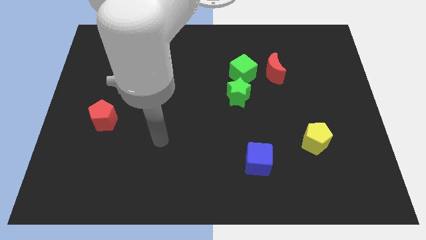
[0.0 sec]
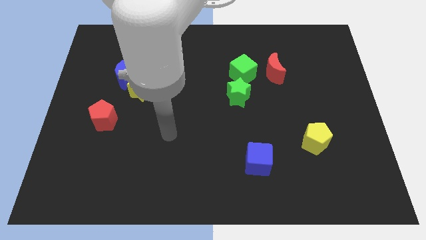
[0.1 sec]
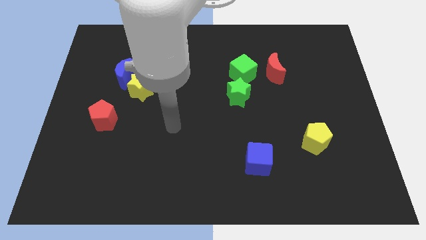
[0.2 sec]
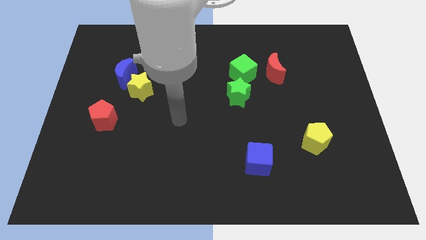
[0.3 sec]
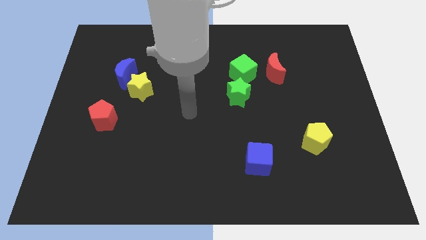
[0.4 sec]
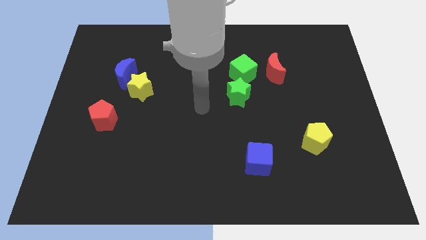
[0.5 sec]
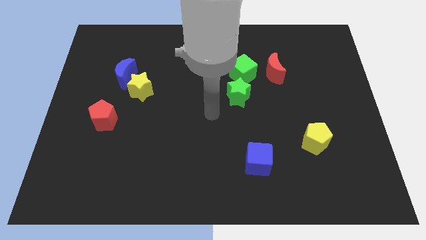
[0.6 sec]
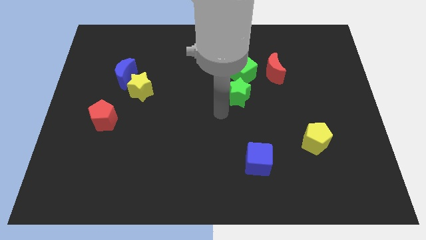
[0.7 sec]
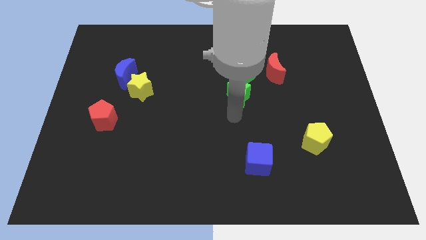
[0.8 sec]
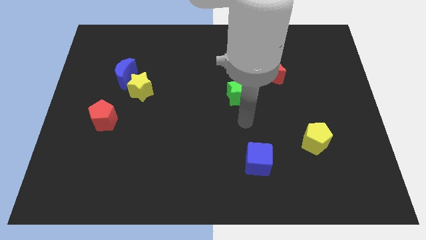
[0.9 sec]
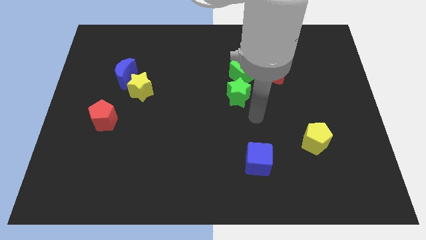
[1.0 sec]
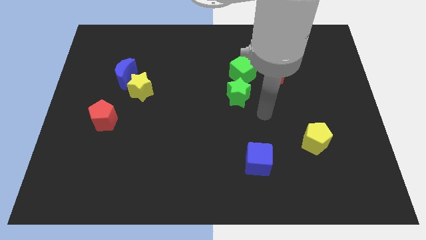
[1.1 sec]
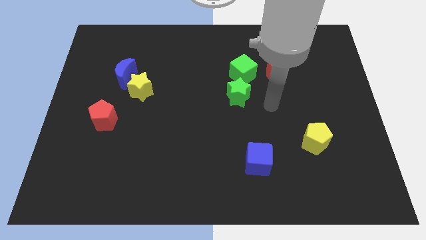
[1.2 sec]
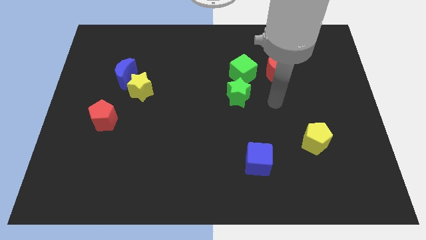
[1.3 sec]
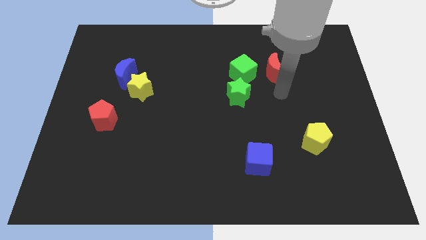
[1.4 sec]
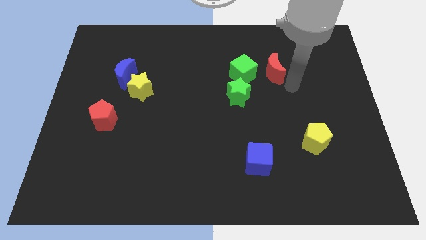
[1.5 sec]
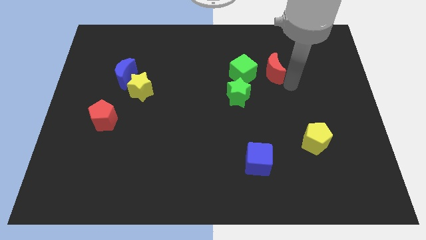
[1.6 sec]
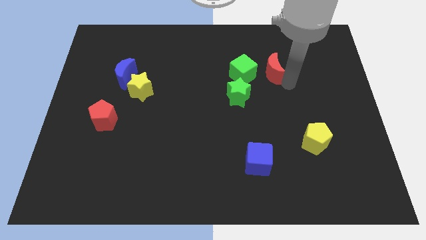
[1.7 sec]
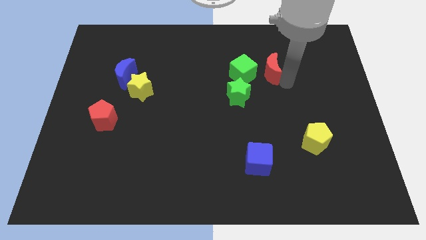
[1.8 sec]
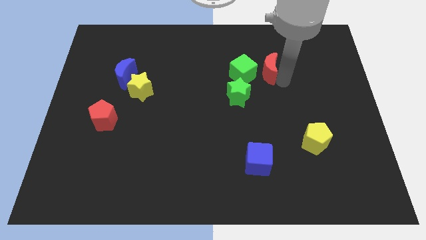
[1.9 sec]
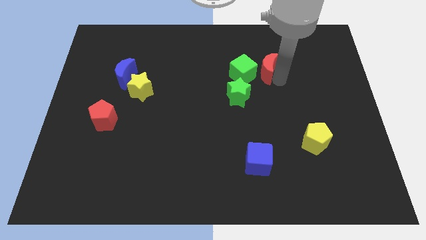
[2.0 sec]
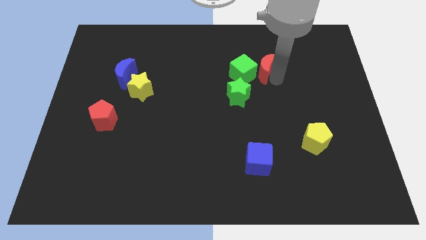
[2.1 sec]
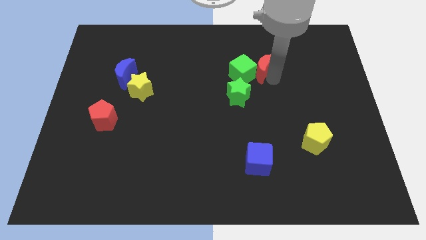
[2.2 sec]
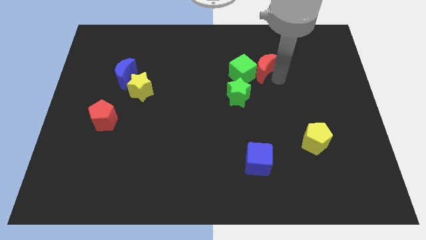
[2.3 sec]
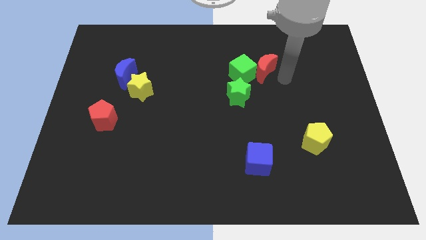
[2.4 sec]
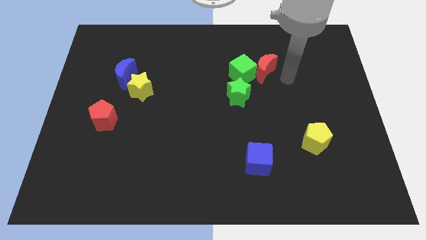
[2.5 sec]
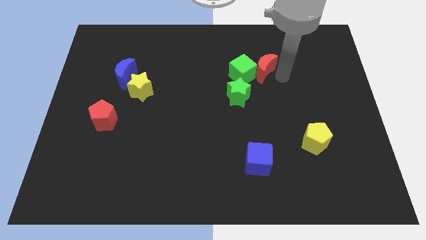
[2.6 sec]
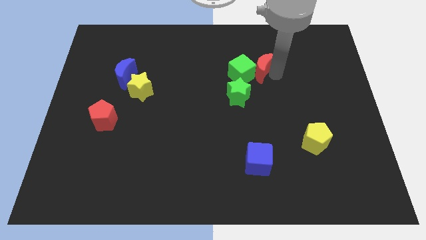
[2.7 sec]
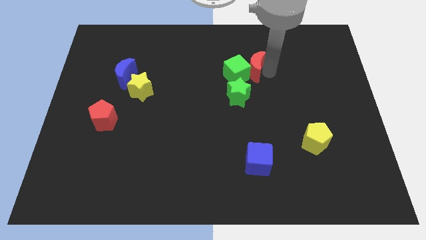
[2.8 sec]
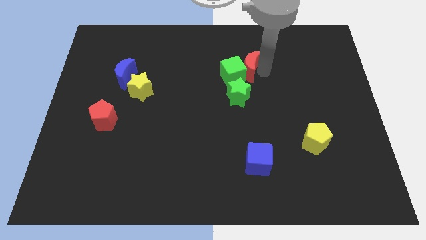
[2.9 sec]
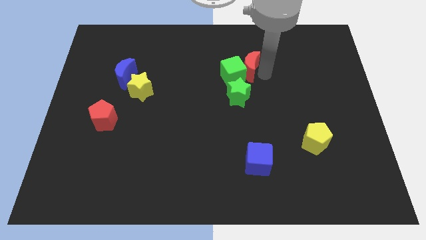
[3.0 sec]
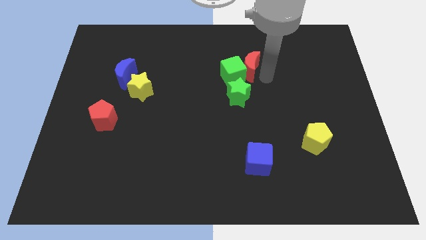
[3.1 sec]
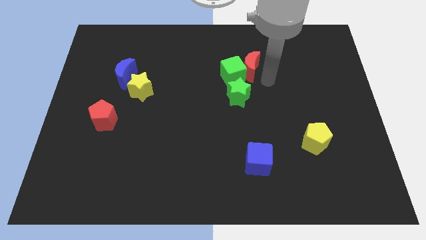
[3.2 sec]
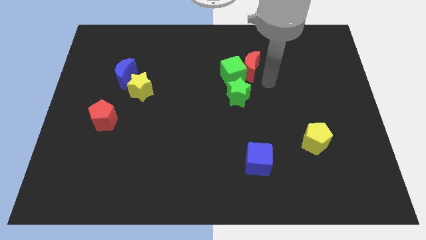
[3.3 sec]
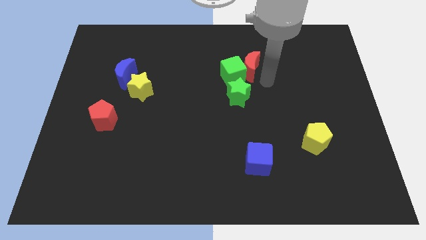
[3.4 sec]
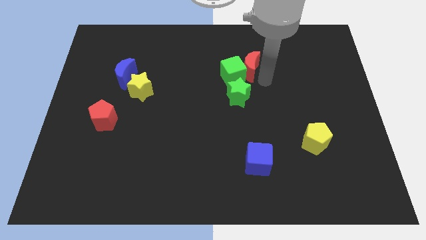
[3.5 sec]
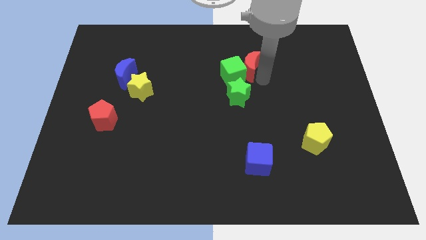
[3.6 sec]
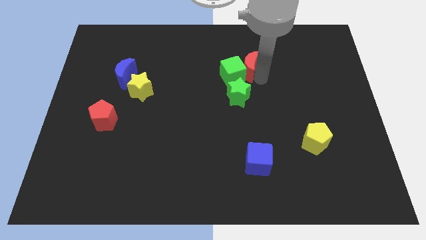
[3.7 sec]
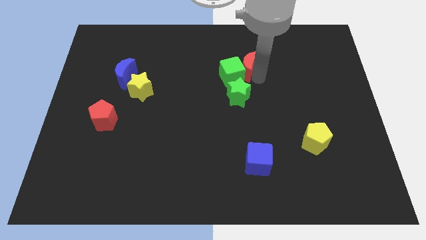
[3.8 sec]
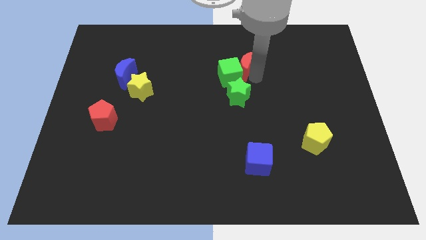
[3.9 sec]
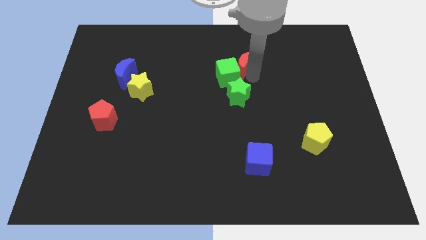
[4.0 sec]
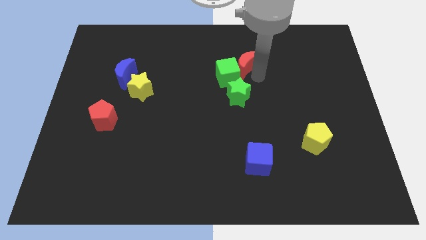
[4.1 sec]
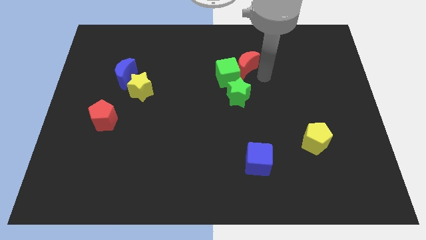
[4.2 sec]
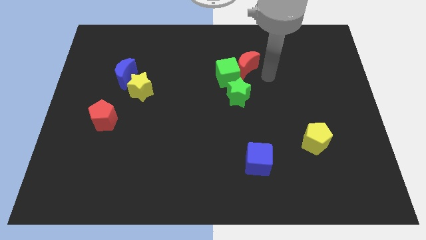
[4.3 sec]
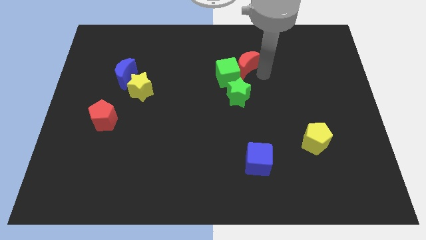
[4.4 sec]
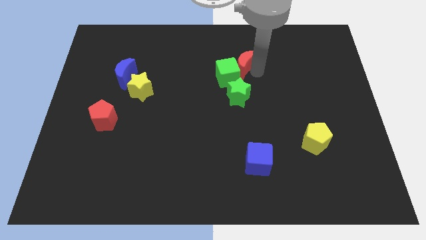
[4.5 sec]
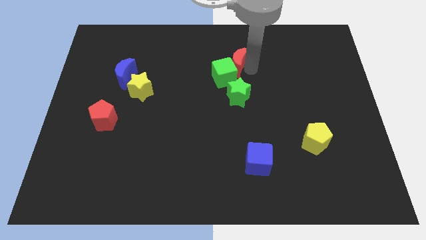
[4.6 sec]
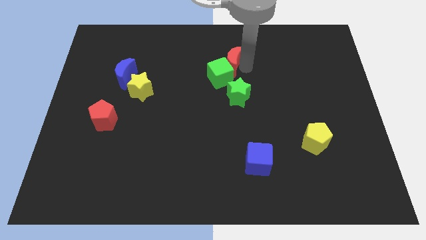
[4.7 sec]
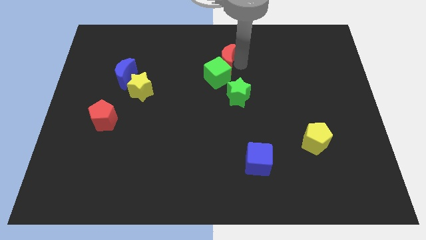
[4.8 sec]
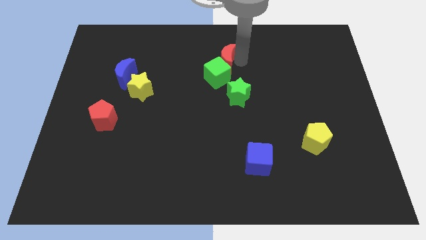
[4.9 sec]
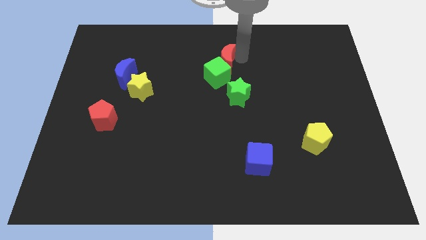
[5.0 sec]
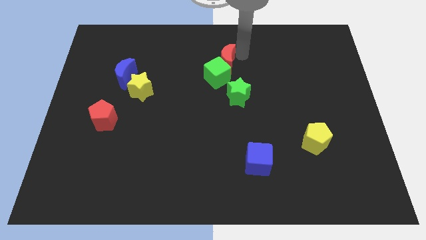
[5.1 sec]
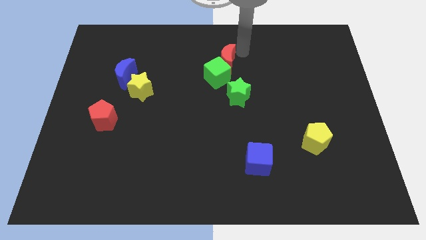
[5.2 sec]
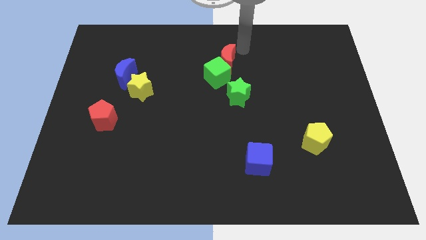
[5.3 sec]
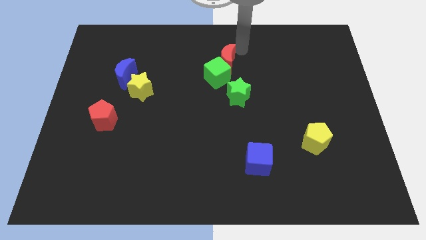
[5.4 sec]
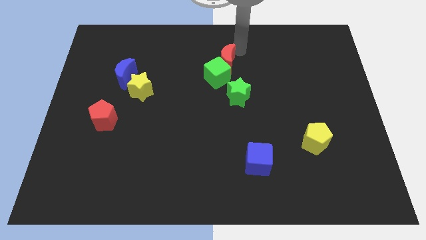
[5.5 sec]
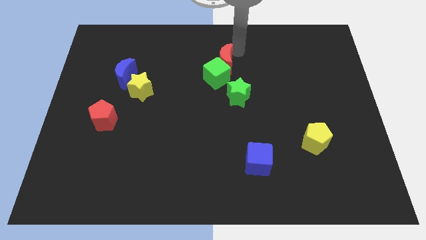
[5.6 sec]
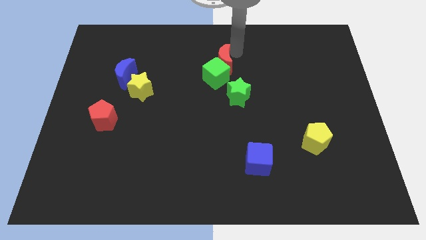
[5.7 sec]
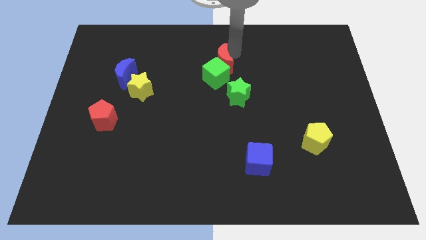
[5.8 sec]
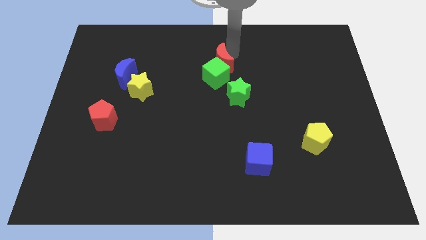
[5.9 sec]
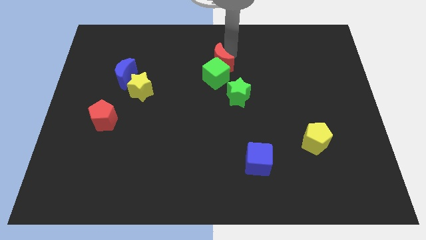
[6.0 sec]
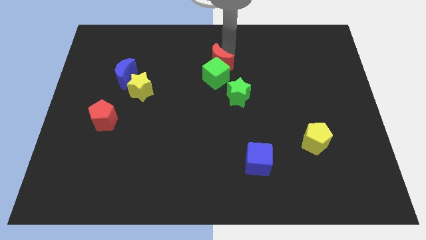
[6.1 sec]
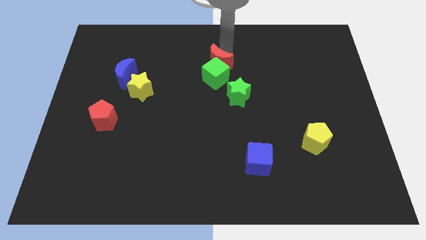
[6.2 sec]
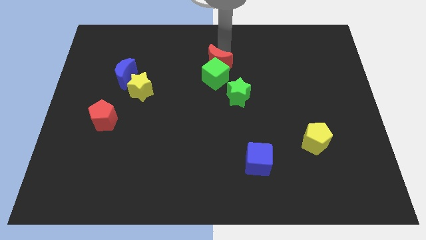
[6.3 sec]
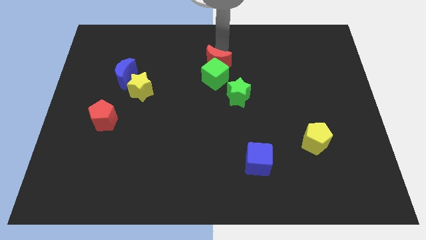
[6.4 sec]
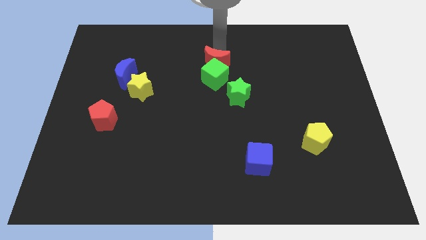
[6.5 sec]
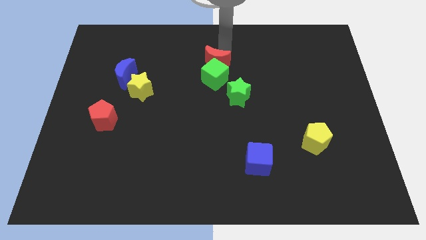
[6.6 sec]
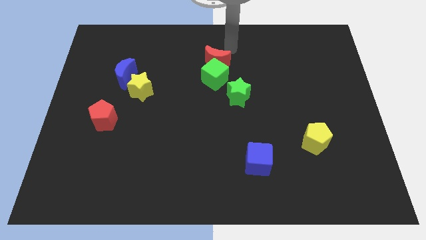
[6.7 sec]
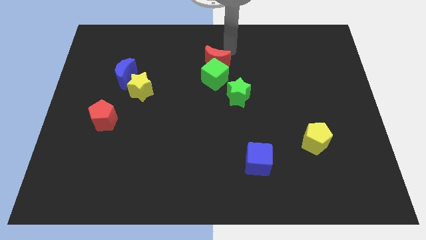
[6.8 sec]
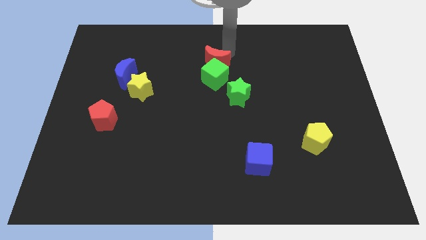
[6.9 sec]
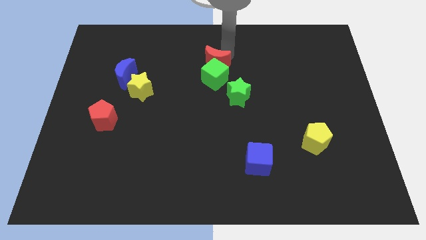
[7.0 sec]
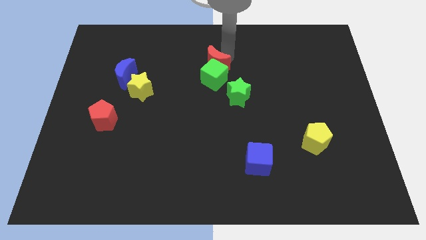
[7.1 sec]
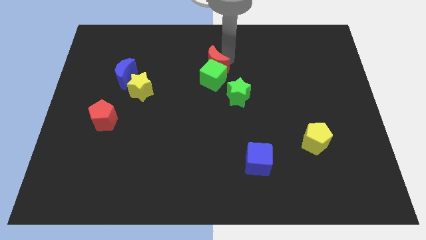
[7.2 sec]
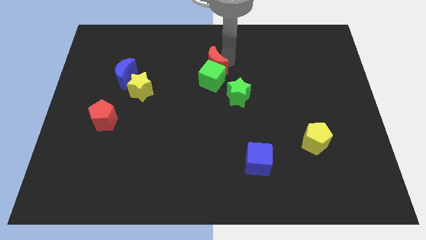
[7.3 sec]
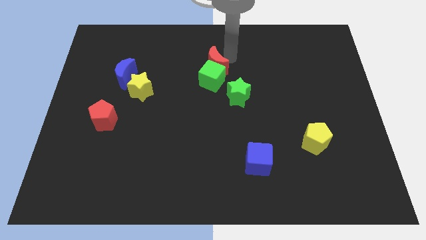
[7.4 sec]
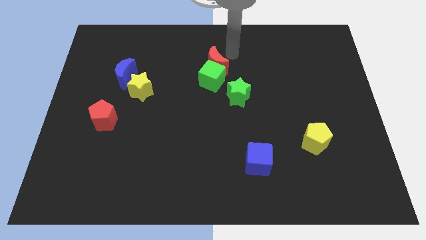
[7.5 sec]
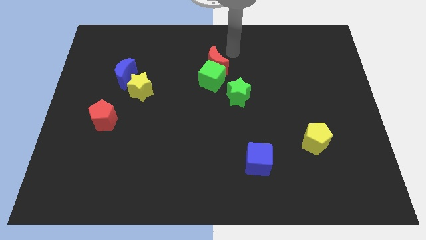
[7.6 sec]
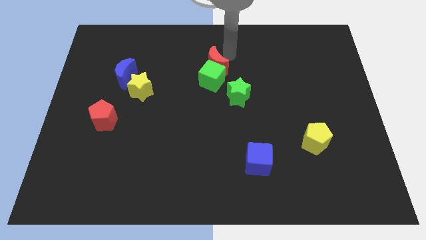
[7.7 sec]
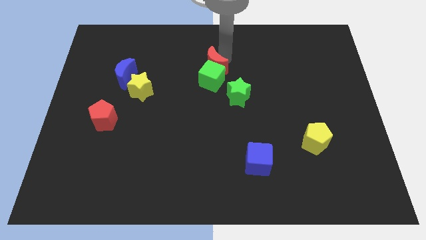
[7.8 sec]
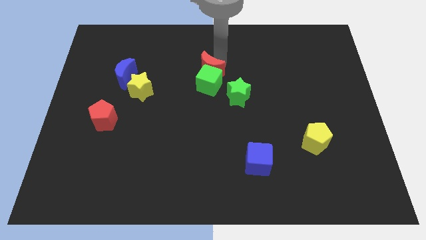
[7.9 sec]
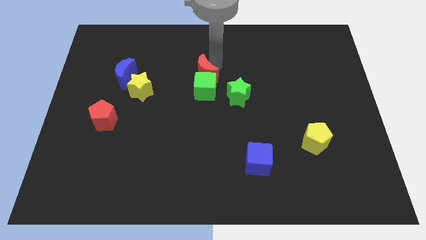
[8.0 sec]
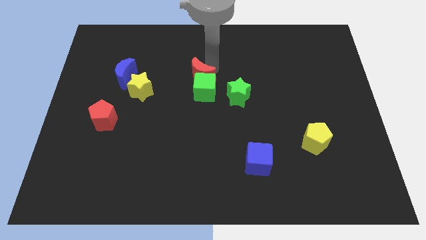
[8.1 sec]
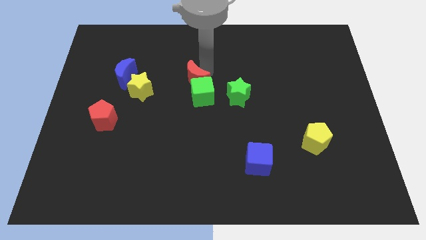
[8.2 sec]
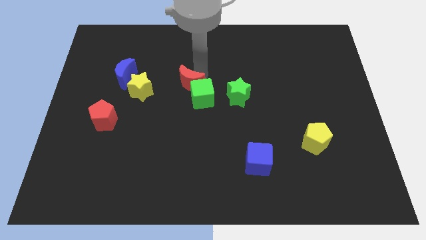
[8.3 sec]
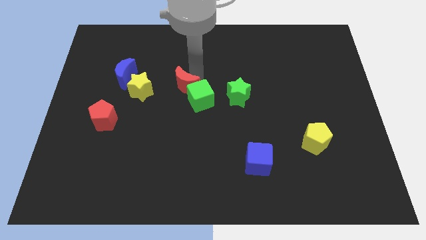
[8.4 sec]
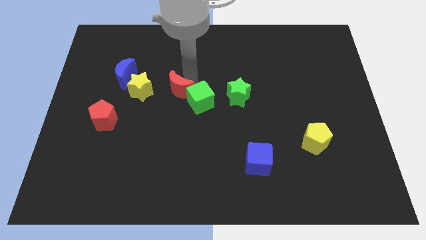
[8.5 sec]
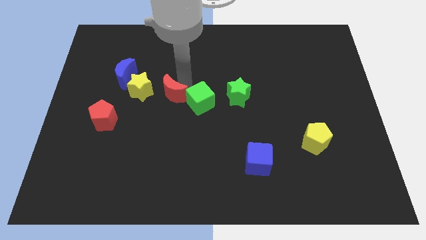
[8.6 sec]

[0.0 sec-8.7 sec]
put the red moon diagonally down and to the right of the yellow star
